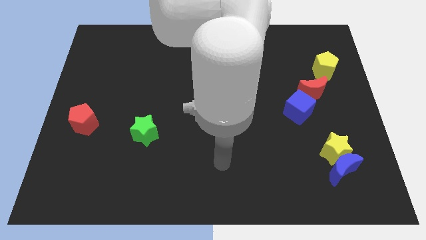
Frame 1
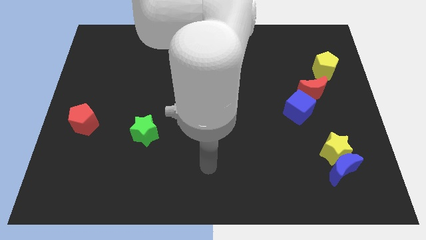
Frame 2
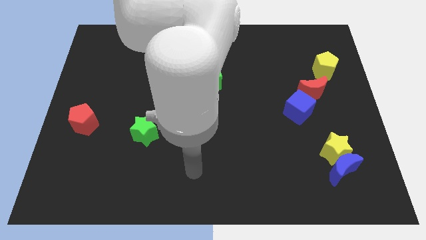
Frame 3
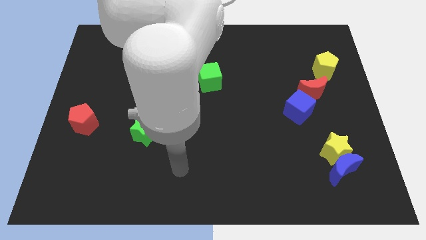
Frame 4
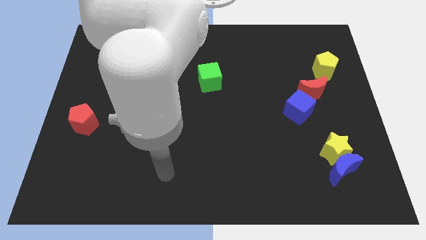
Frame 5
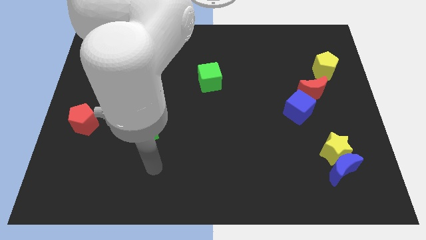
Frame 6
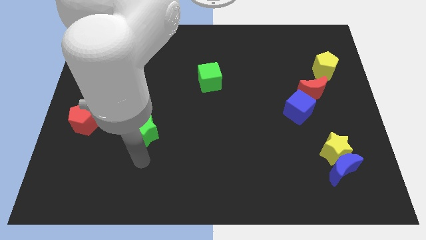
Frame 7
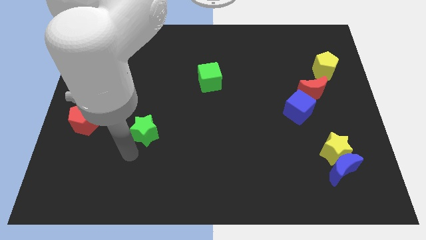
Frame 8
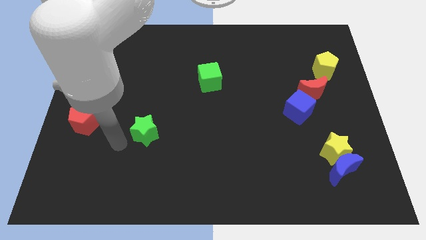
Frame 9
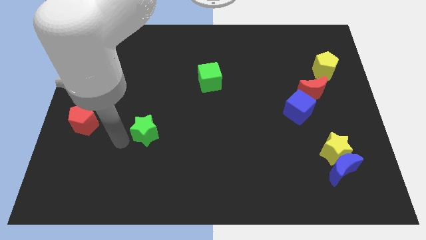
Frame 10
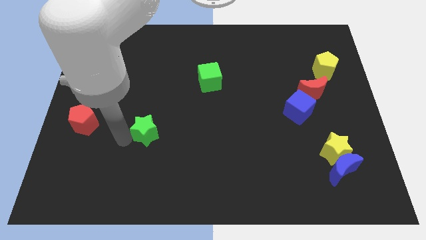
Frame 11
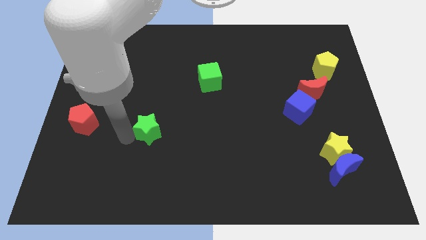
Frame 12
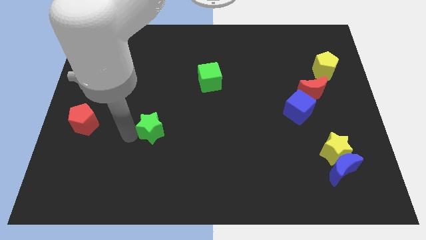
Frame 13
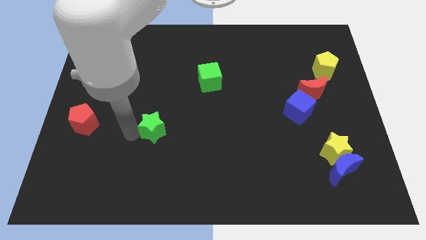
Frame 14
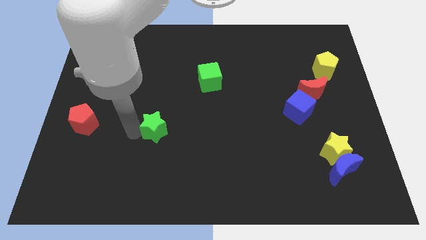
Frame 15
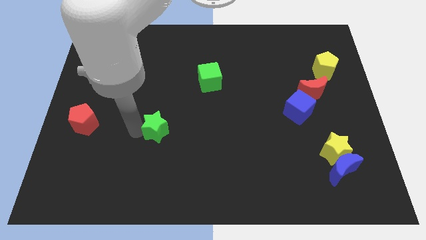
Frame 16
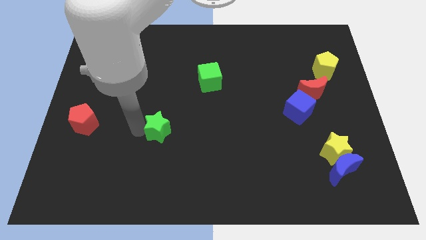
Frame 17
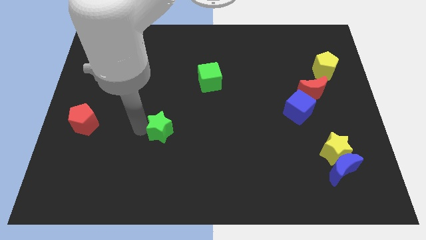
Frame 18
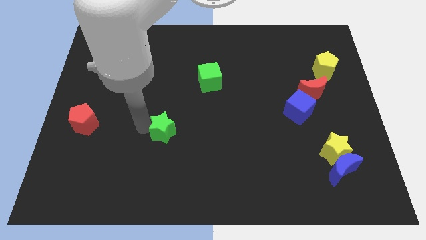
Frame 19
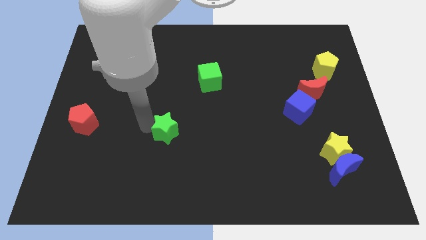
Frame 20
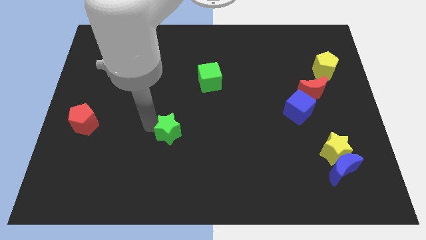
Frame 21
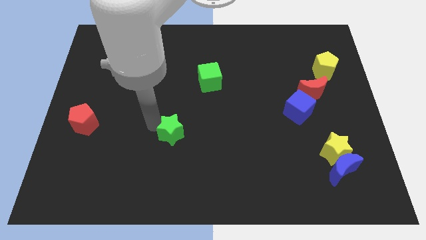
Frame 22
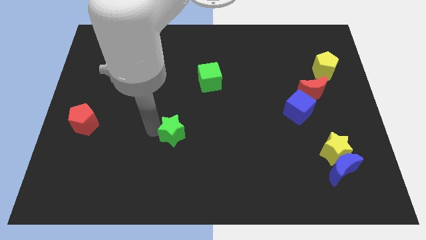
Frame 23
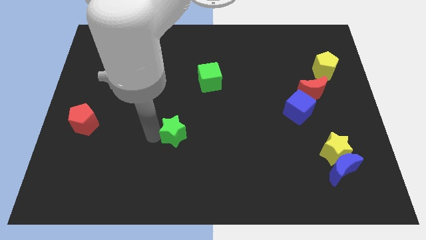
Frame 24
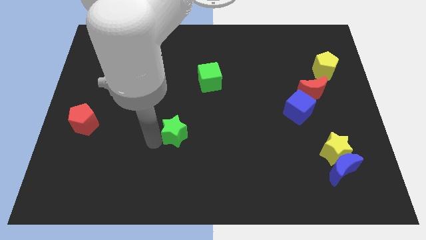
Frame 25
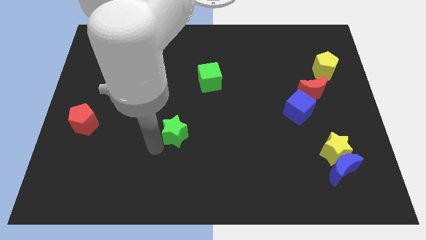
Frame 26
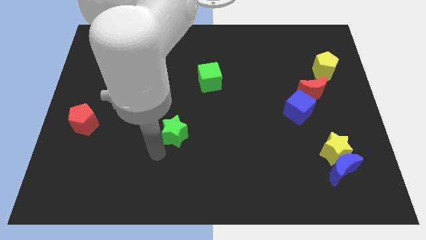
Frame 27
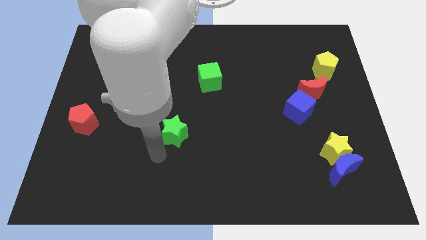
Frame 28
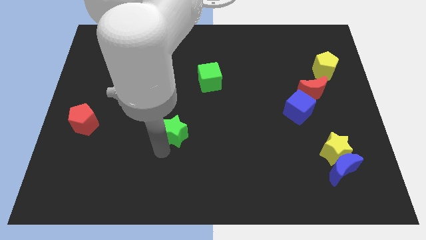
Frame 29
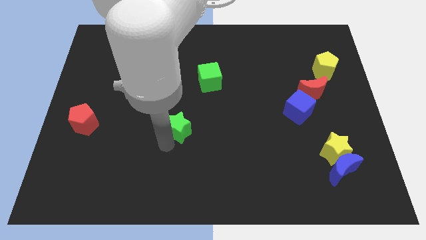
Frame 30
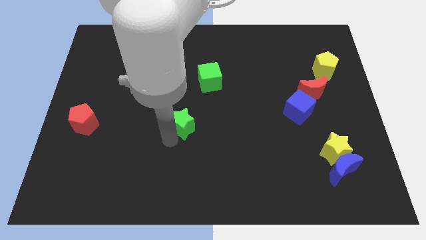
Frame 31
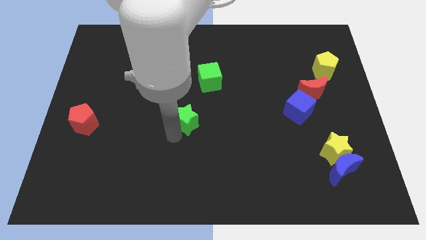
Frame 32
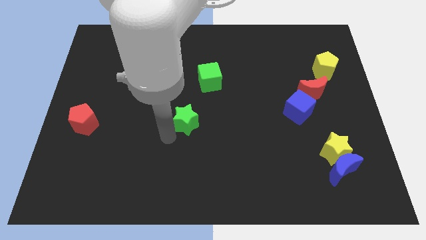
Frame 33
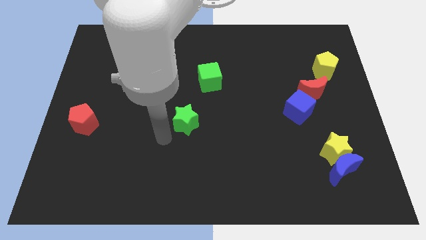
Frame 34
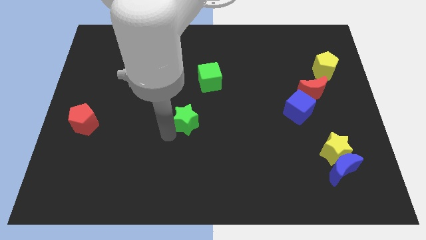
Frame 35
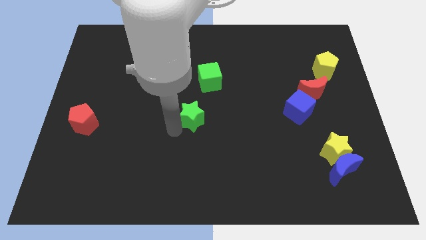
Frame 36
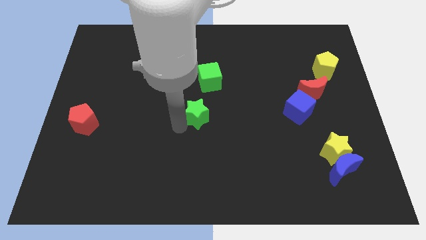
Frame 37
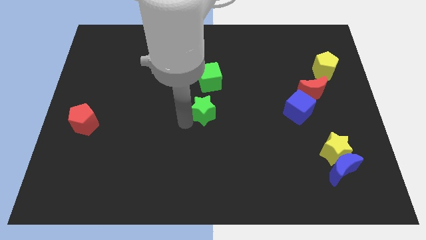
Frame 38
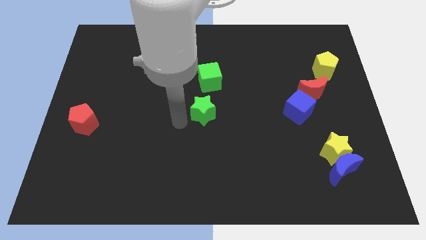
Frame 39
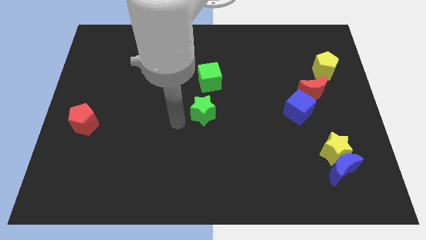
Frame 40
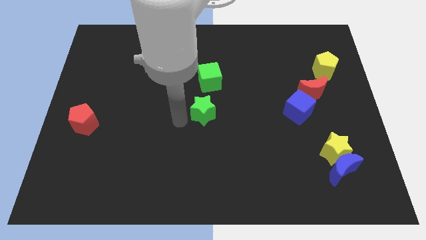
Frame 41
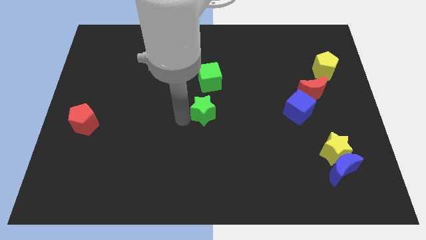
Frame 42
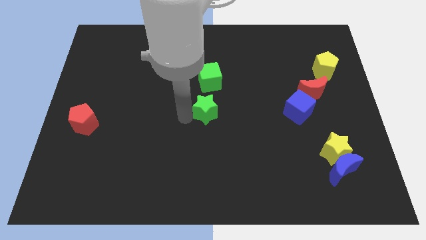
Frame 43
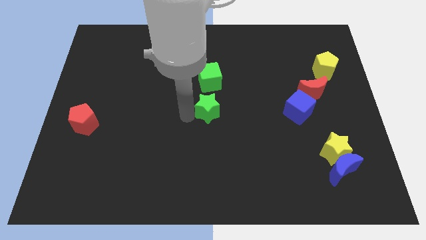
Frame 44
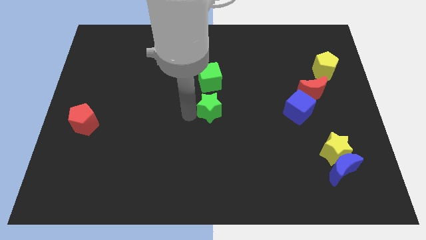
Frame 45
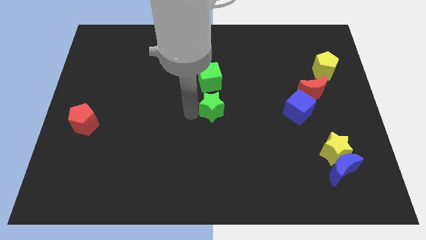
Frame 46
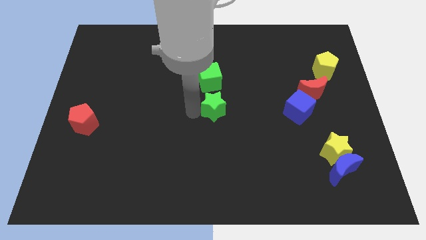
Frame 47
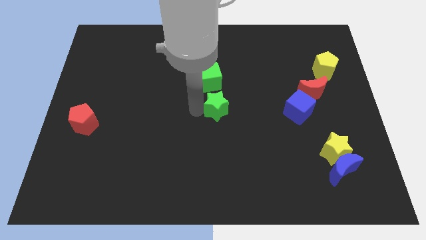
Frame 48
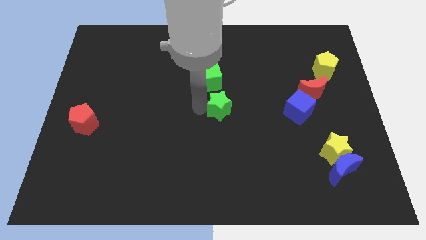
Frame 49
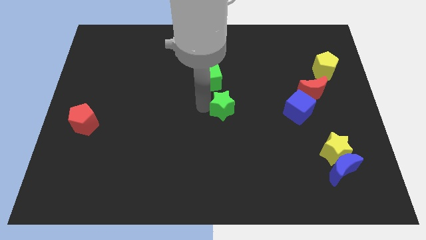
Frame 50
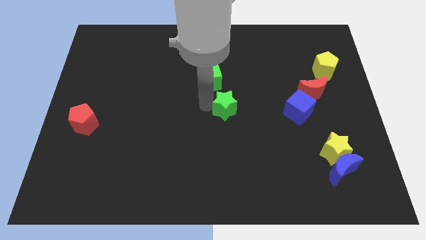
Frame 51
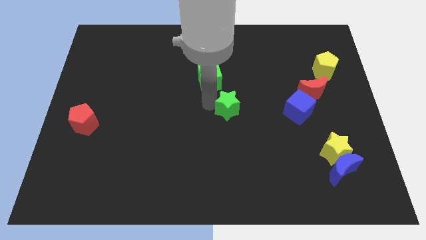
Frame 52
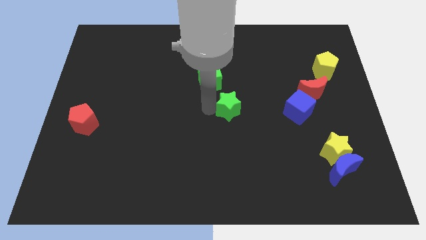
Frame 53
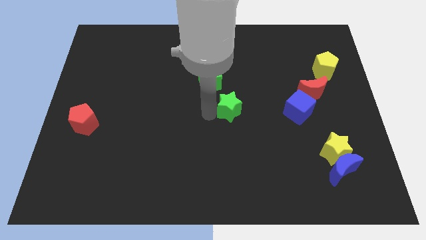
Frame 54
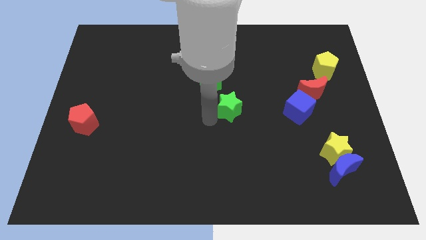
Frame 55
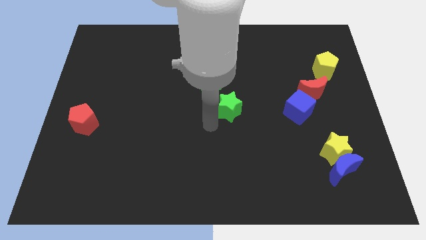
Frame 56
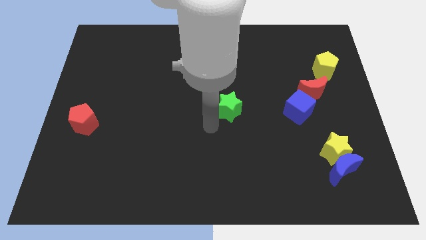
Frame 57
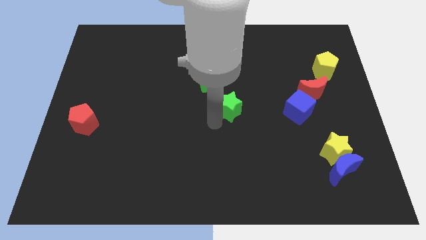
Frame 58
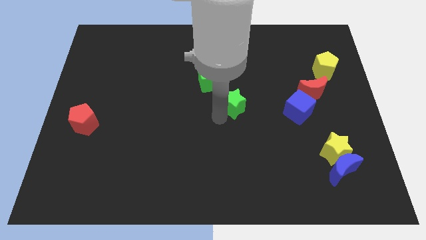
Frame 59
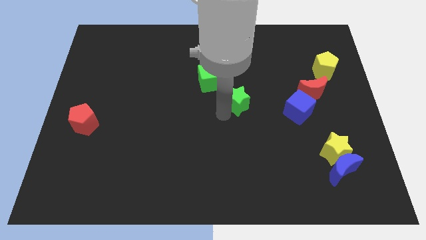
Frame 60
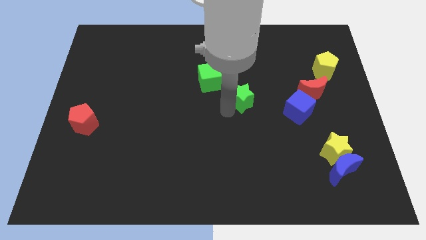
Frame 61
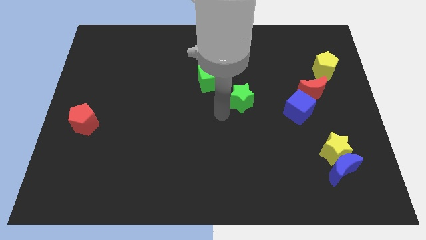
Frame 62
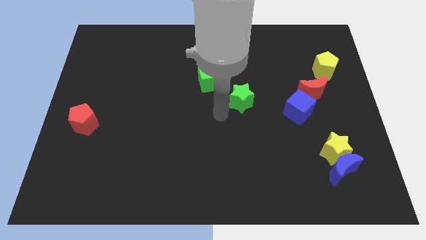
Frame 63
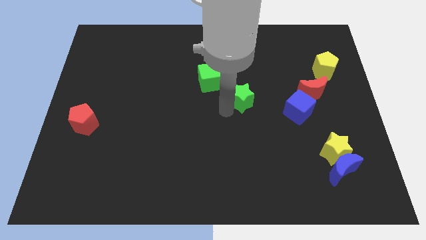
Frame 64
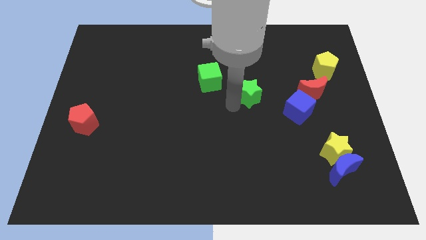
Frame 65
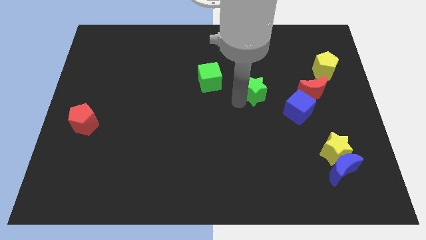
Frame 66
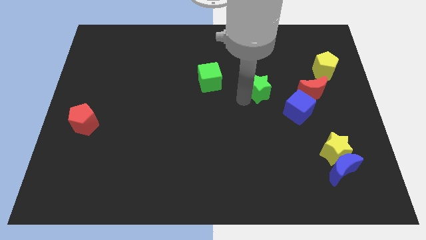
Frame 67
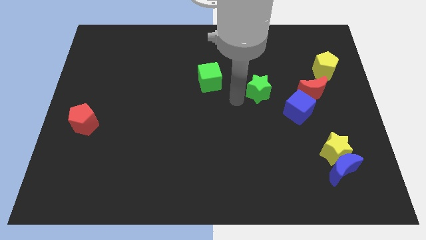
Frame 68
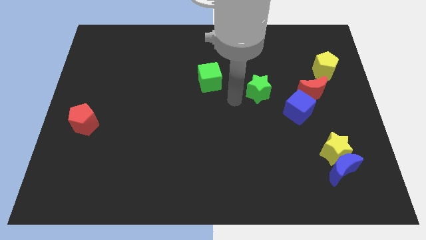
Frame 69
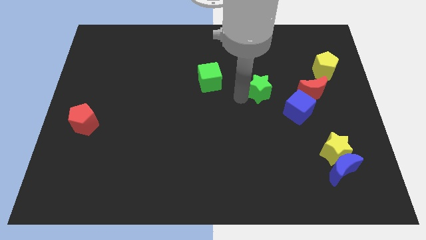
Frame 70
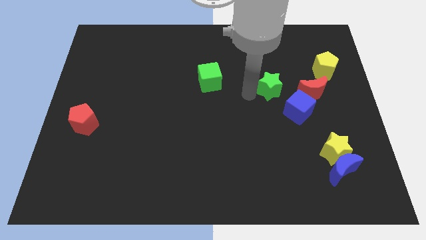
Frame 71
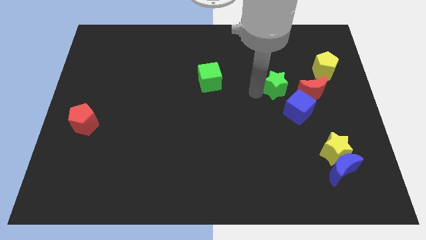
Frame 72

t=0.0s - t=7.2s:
put the green star to the top of the blue cube
